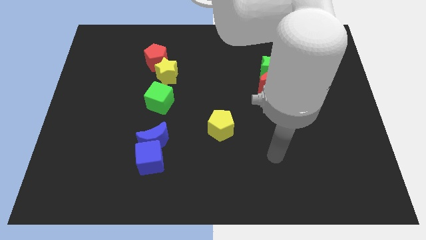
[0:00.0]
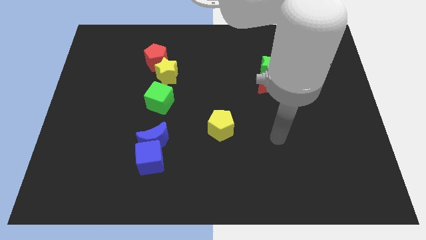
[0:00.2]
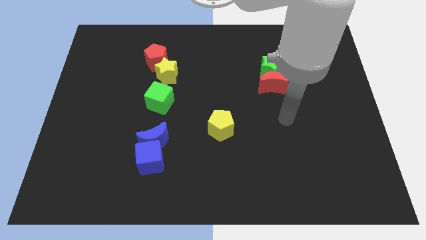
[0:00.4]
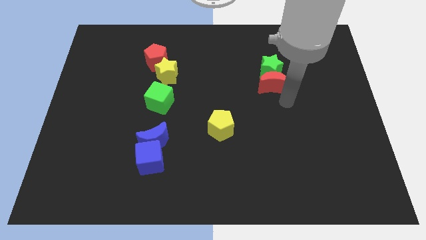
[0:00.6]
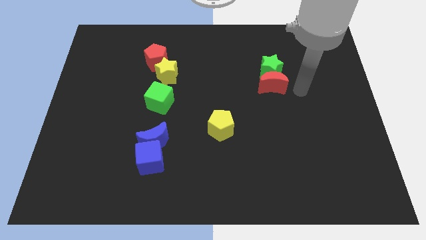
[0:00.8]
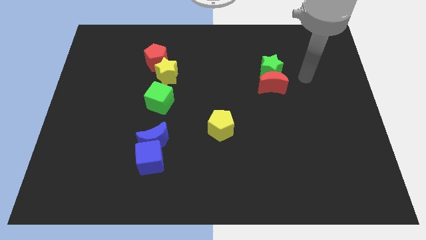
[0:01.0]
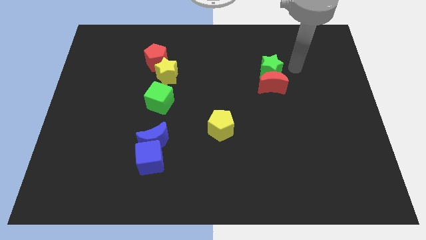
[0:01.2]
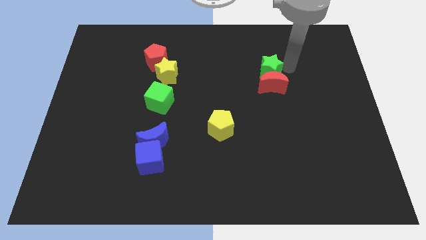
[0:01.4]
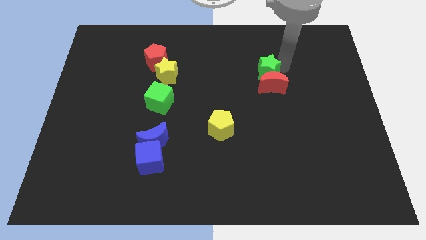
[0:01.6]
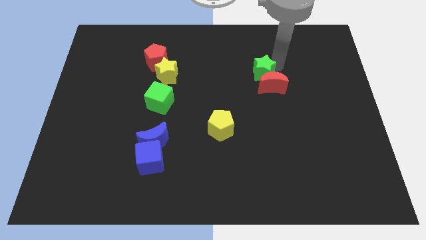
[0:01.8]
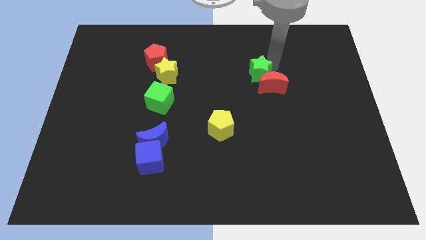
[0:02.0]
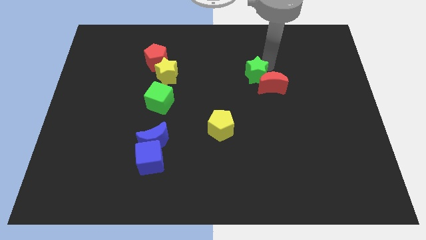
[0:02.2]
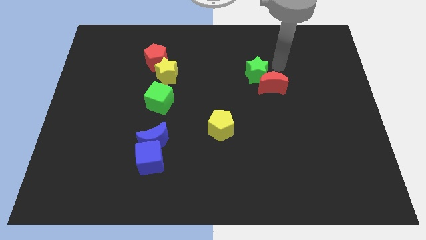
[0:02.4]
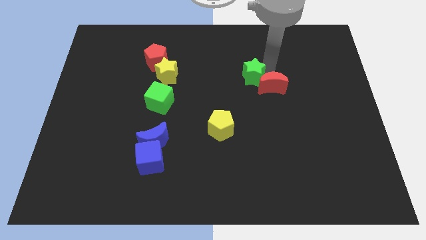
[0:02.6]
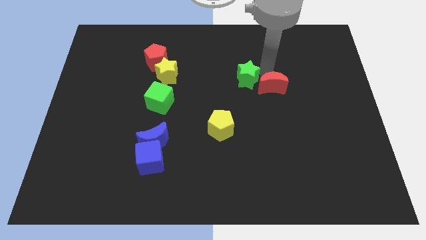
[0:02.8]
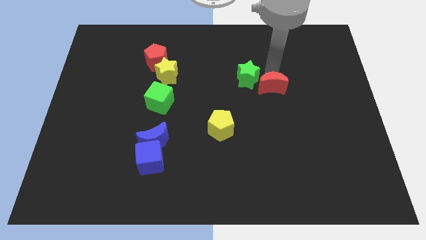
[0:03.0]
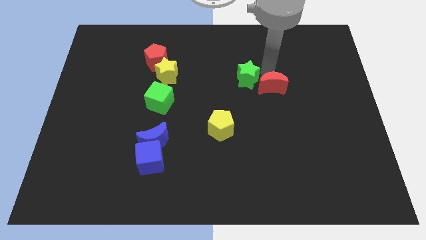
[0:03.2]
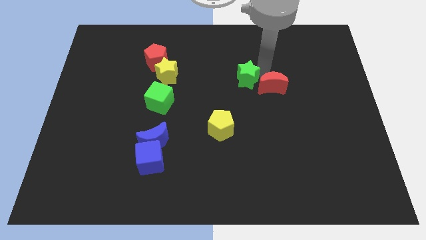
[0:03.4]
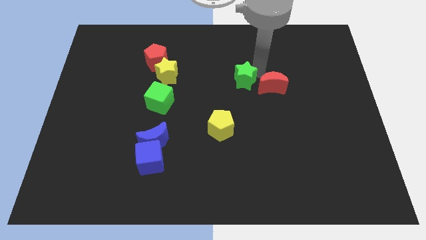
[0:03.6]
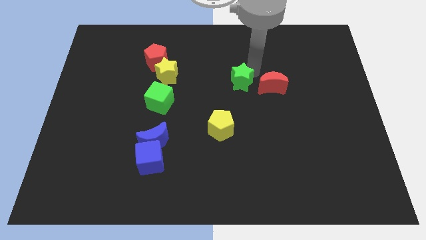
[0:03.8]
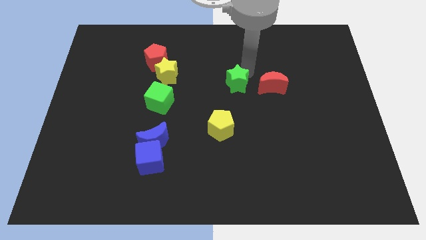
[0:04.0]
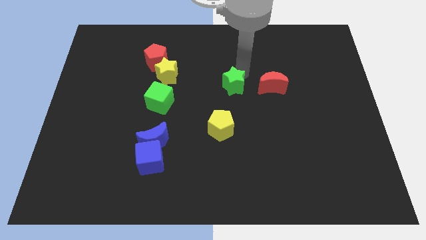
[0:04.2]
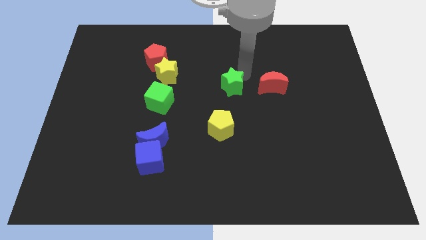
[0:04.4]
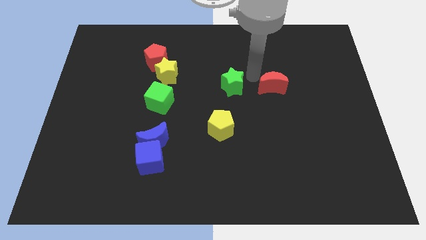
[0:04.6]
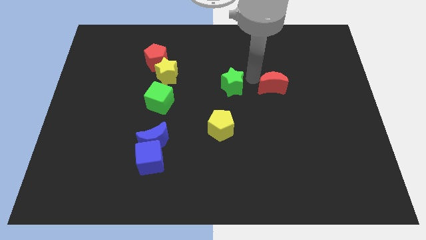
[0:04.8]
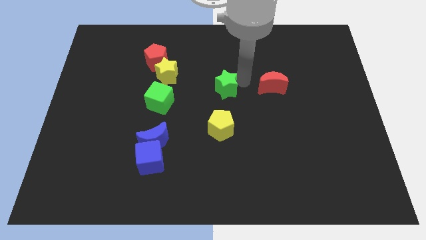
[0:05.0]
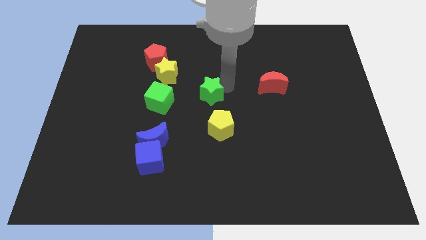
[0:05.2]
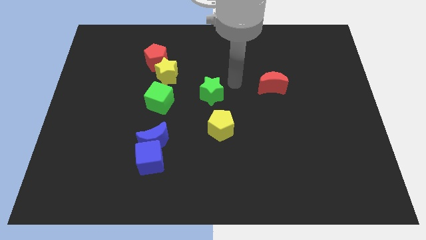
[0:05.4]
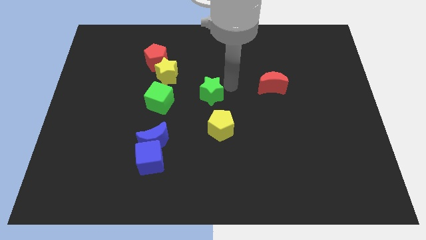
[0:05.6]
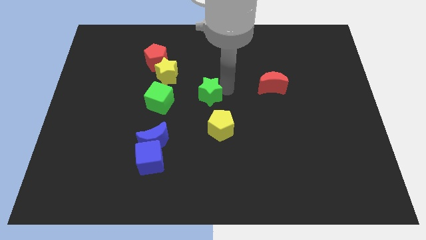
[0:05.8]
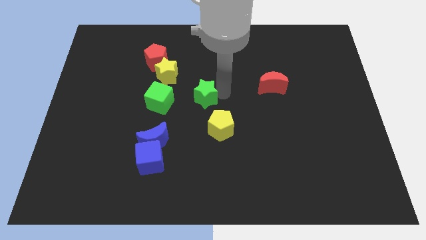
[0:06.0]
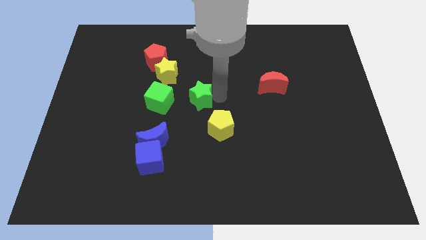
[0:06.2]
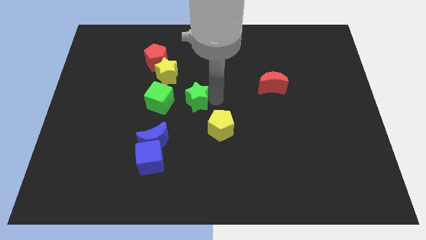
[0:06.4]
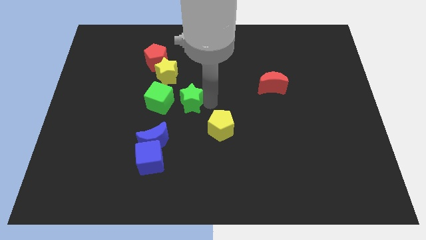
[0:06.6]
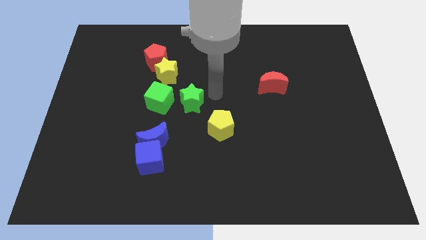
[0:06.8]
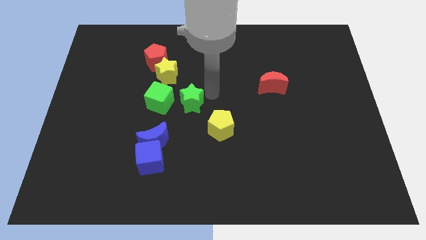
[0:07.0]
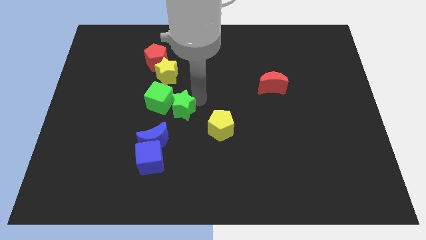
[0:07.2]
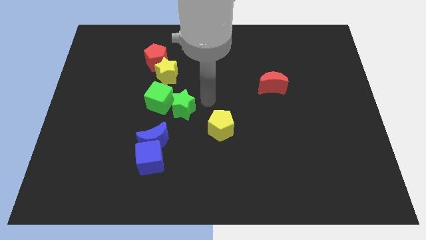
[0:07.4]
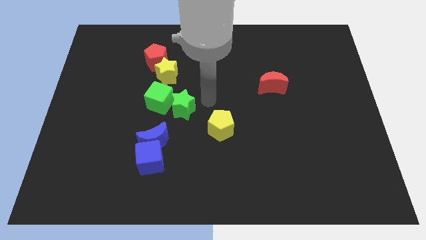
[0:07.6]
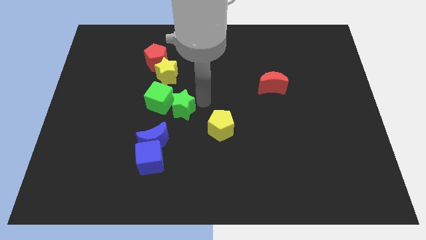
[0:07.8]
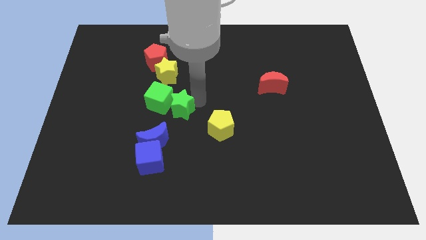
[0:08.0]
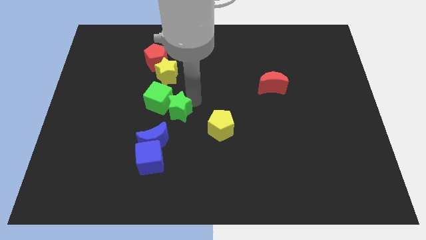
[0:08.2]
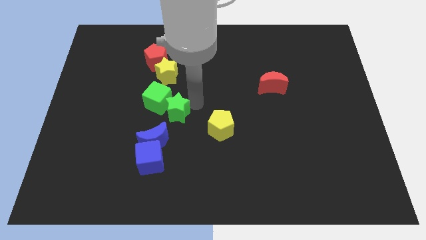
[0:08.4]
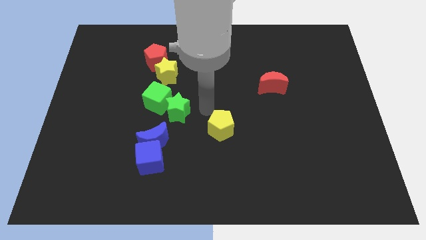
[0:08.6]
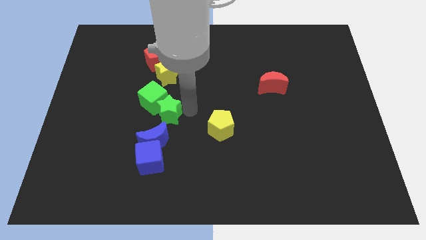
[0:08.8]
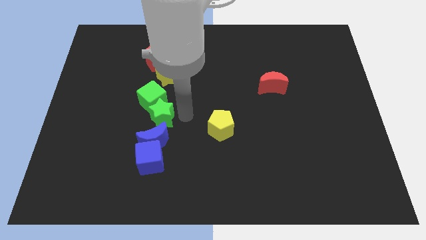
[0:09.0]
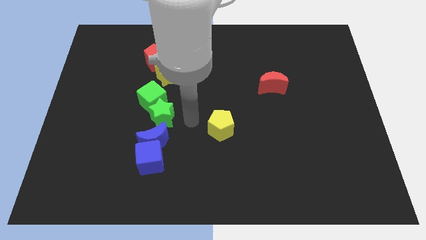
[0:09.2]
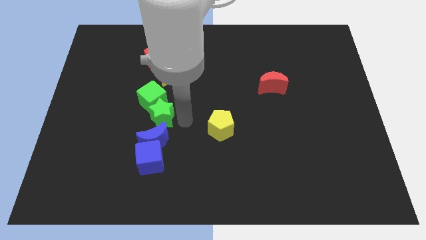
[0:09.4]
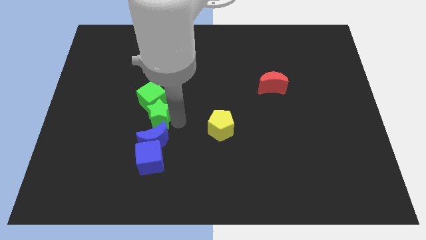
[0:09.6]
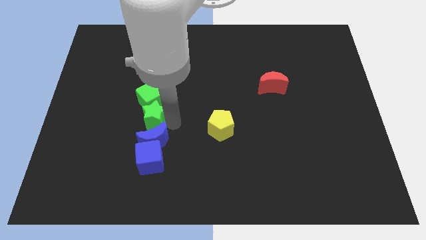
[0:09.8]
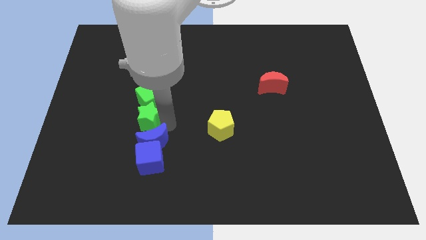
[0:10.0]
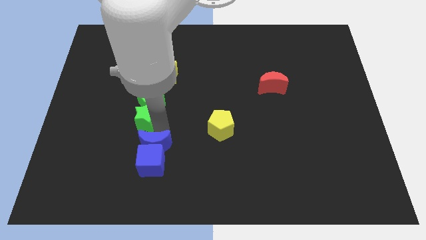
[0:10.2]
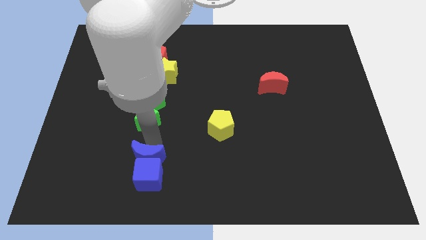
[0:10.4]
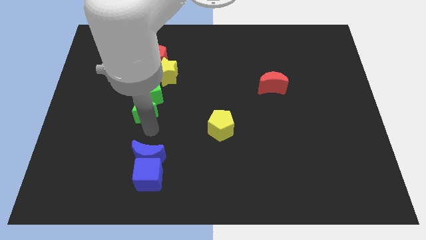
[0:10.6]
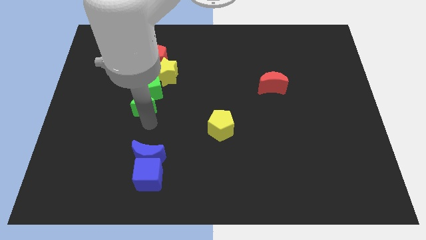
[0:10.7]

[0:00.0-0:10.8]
move the green star to the bottom left of the yellow star

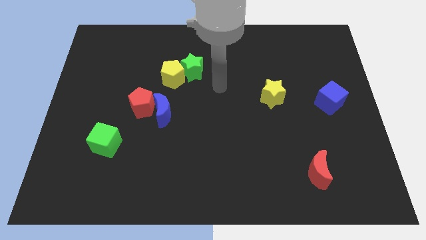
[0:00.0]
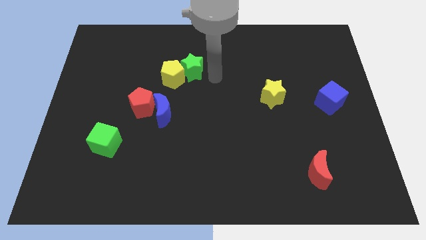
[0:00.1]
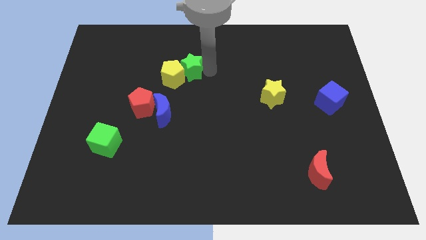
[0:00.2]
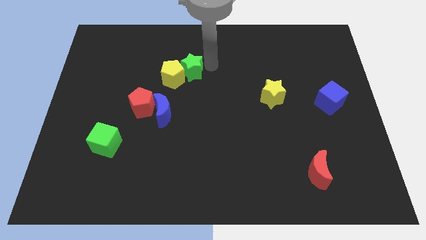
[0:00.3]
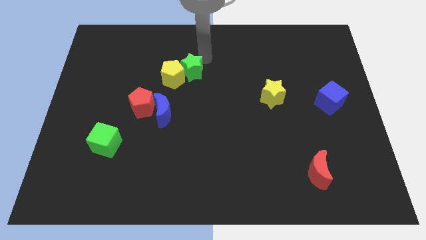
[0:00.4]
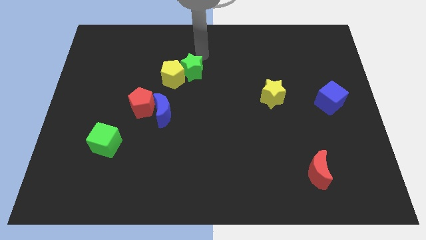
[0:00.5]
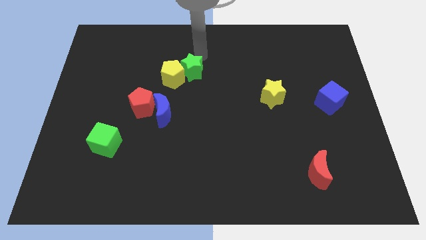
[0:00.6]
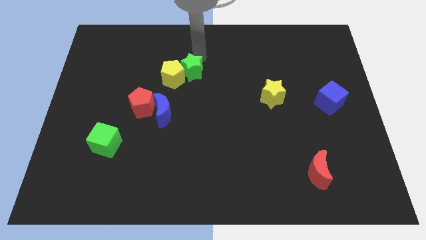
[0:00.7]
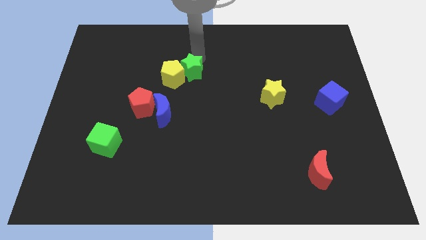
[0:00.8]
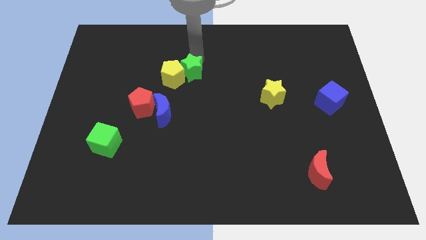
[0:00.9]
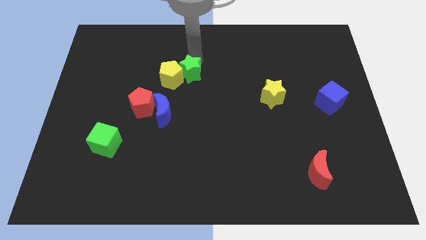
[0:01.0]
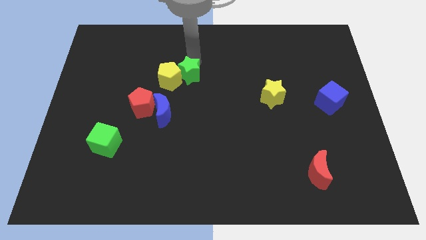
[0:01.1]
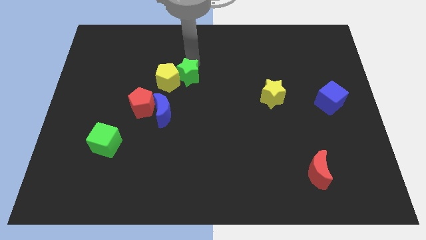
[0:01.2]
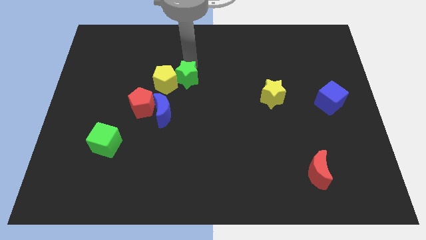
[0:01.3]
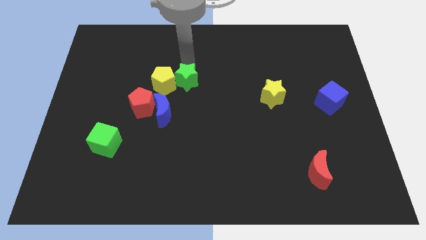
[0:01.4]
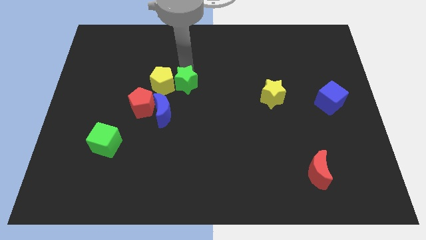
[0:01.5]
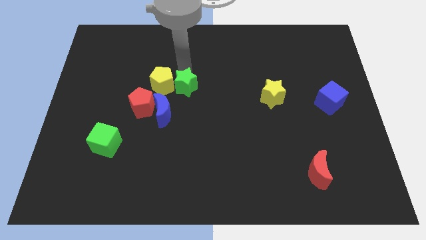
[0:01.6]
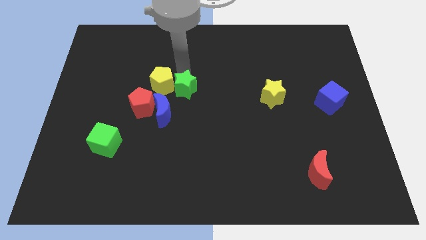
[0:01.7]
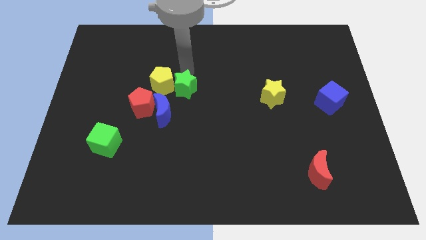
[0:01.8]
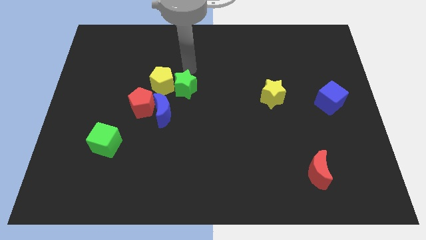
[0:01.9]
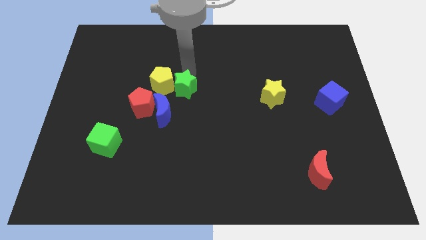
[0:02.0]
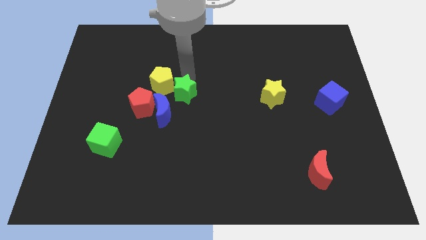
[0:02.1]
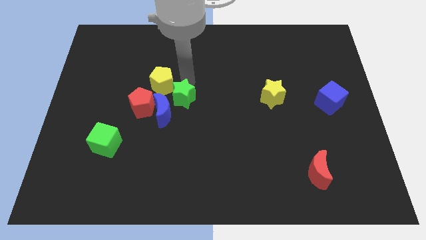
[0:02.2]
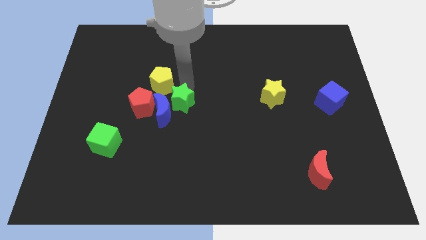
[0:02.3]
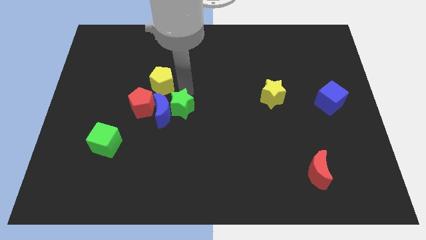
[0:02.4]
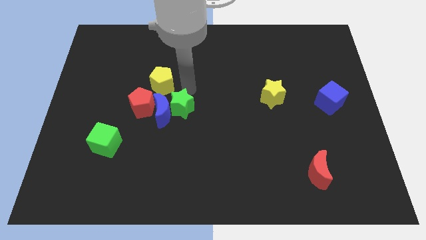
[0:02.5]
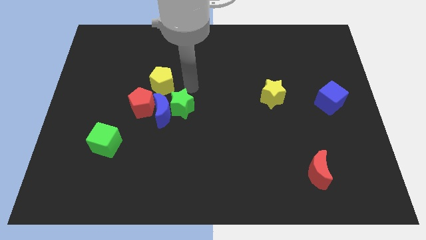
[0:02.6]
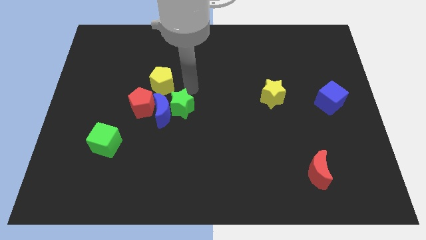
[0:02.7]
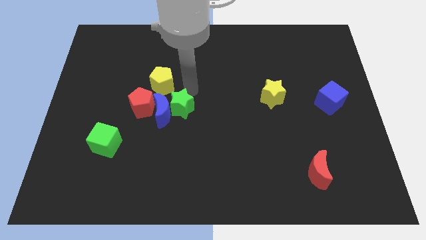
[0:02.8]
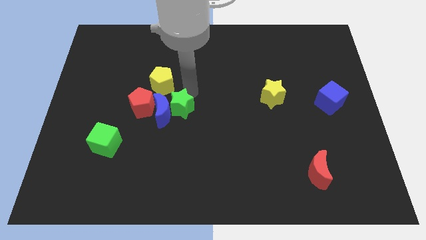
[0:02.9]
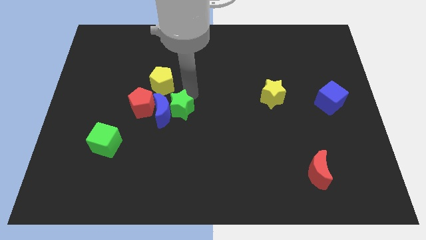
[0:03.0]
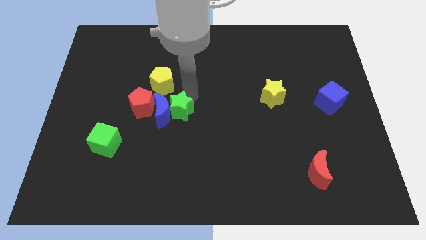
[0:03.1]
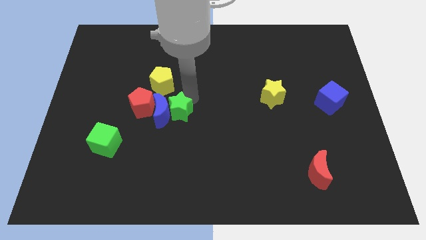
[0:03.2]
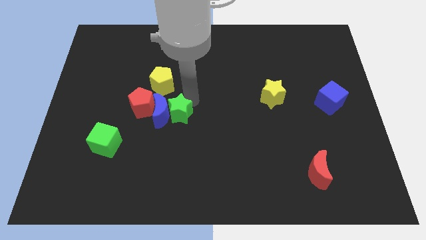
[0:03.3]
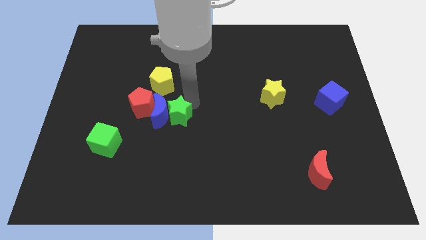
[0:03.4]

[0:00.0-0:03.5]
move the green star below the yellow pentagon
